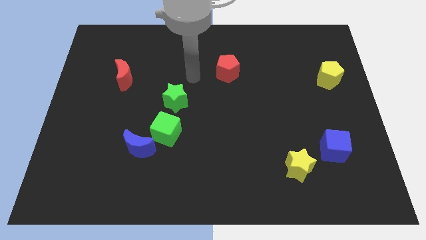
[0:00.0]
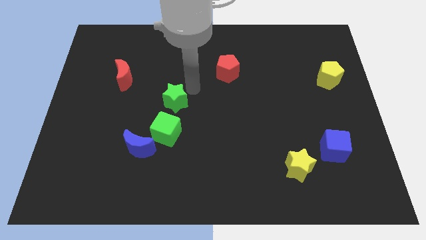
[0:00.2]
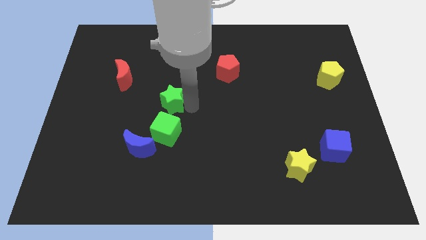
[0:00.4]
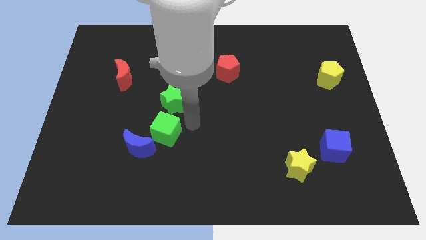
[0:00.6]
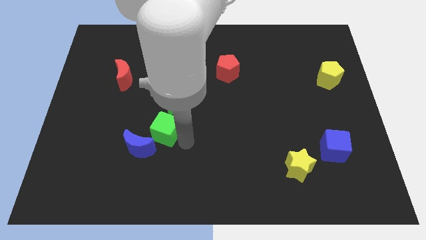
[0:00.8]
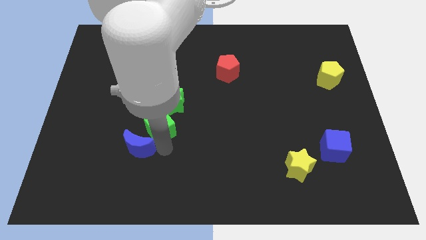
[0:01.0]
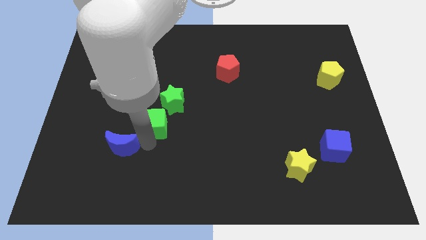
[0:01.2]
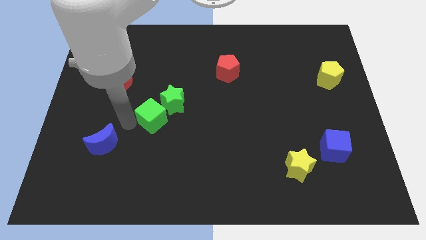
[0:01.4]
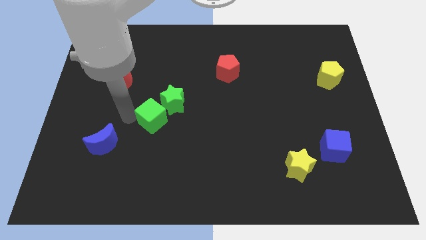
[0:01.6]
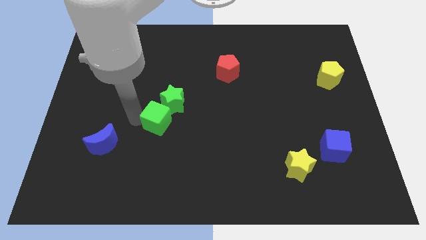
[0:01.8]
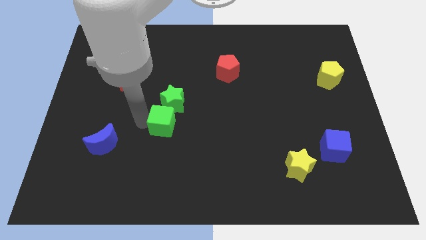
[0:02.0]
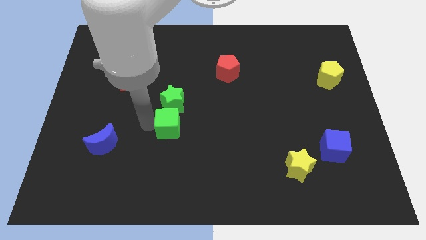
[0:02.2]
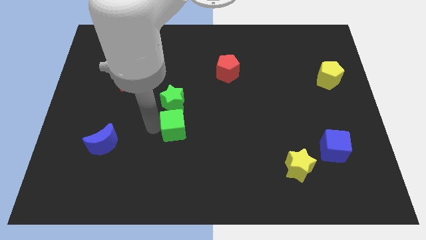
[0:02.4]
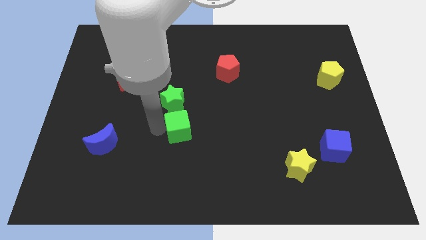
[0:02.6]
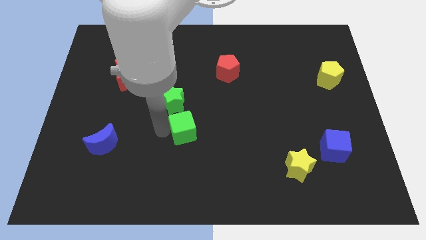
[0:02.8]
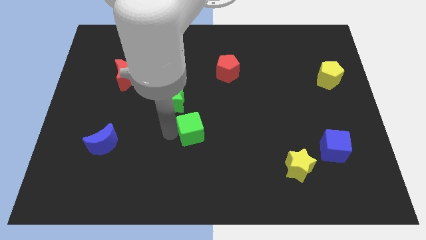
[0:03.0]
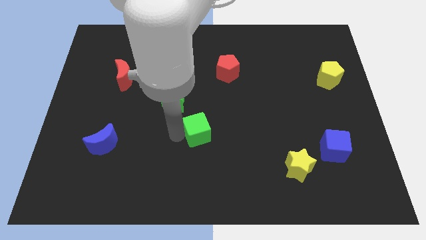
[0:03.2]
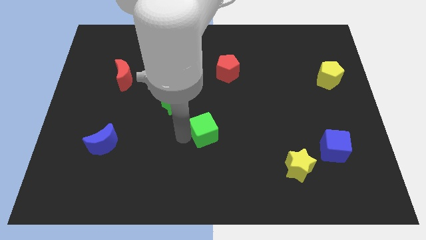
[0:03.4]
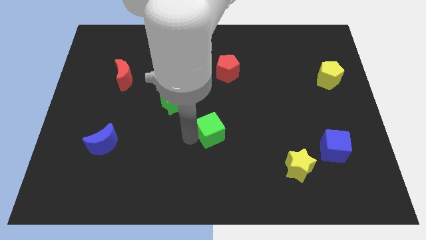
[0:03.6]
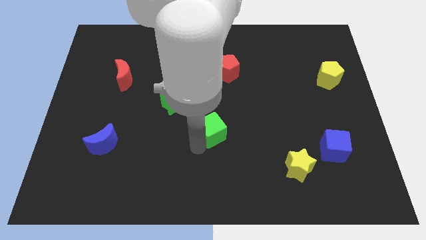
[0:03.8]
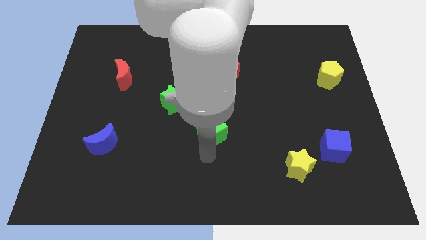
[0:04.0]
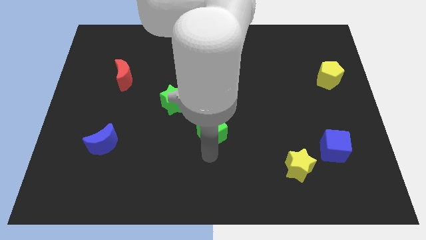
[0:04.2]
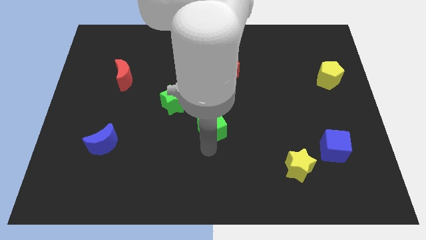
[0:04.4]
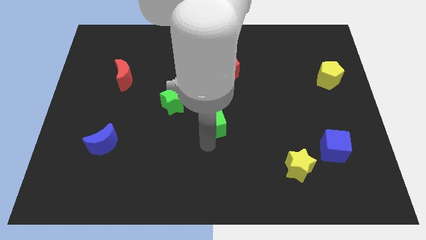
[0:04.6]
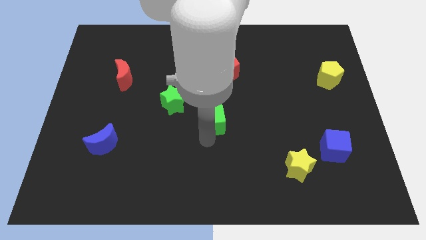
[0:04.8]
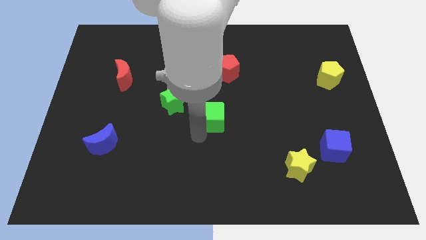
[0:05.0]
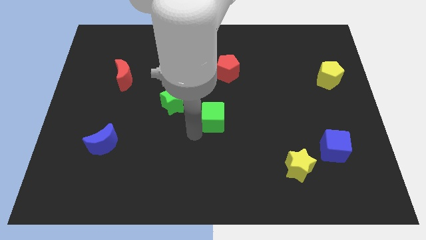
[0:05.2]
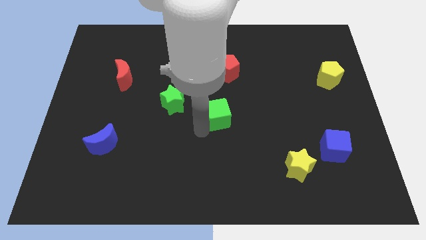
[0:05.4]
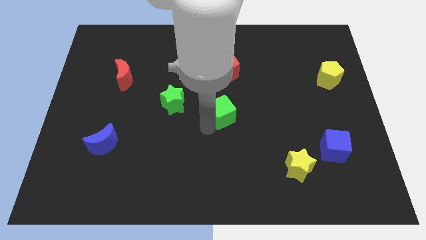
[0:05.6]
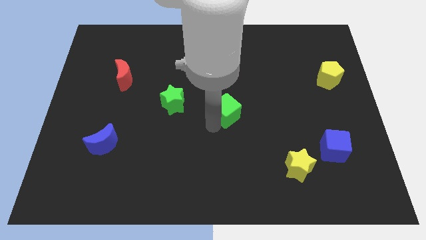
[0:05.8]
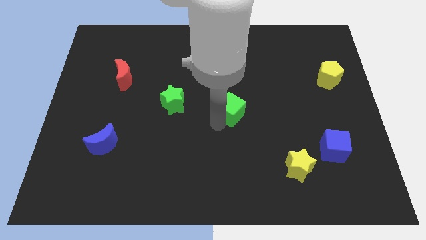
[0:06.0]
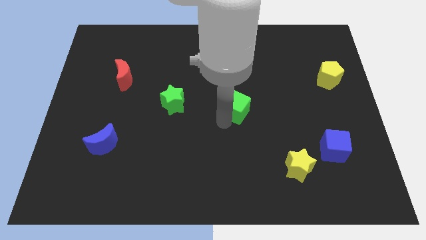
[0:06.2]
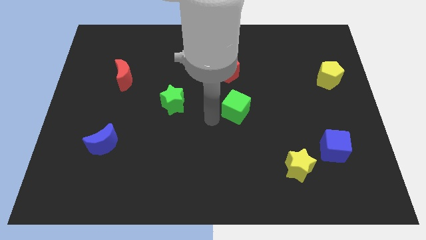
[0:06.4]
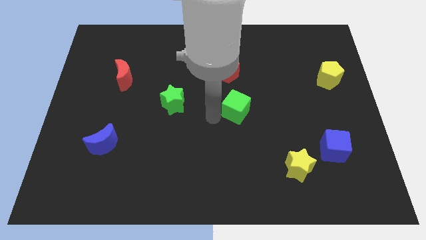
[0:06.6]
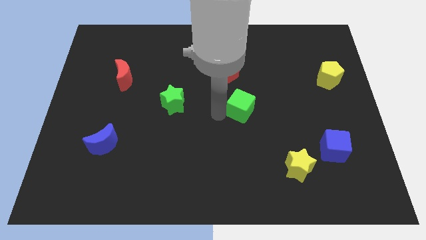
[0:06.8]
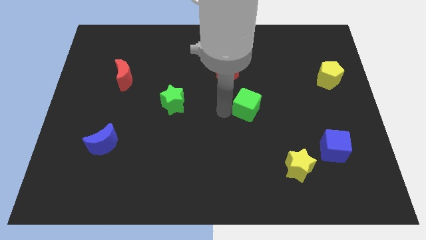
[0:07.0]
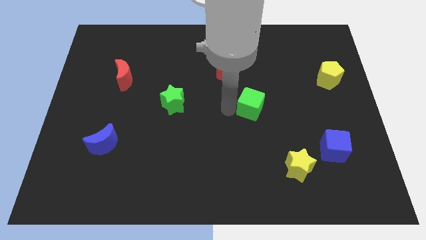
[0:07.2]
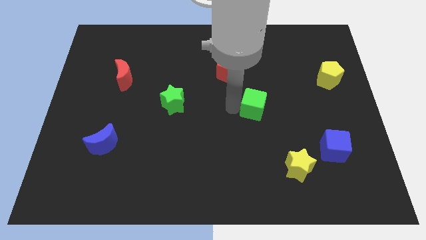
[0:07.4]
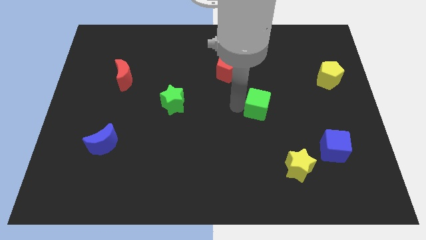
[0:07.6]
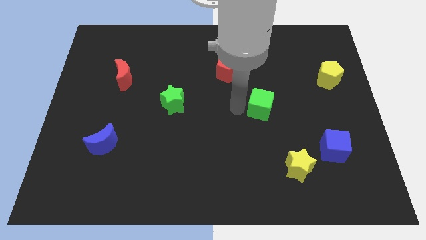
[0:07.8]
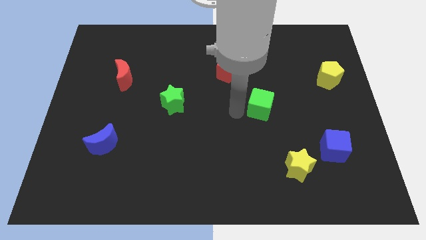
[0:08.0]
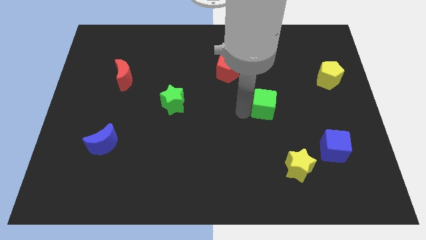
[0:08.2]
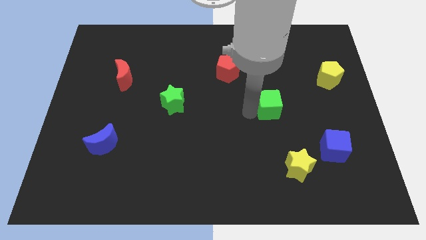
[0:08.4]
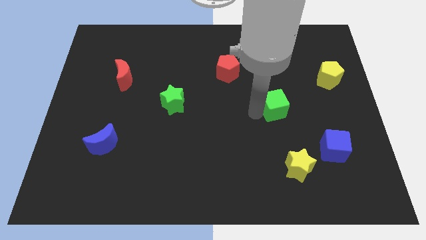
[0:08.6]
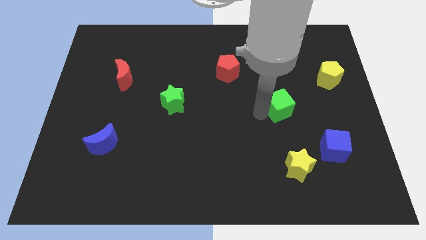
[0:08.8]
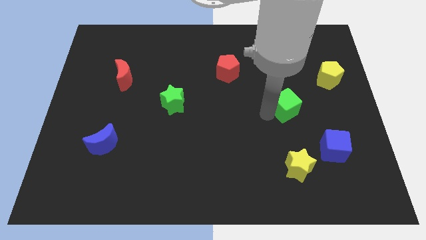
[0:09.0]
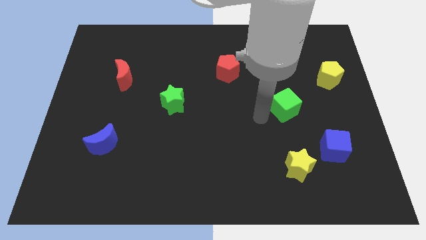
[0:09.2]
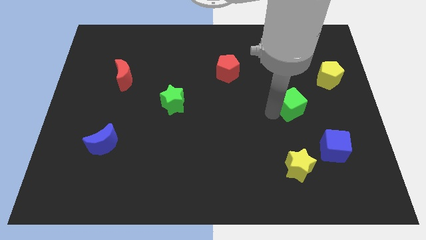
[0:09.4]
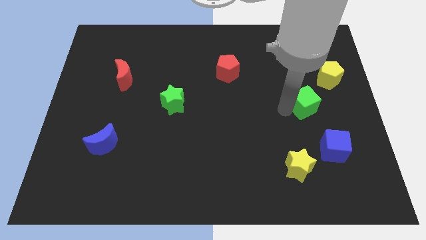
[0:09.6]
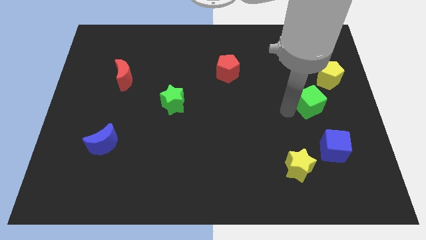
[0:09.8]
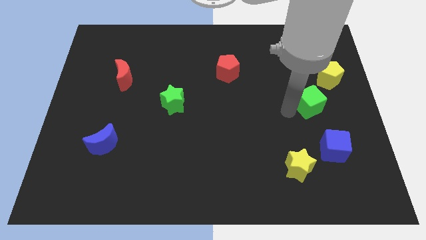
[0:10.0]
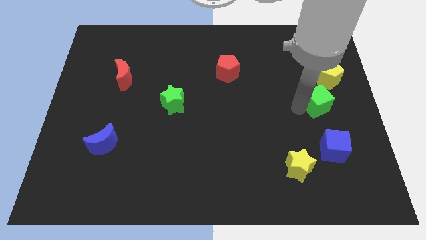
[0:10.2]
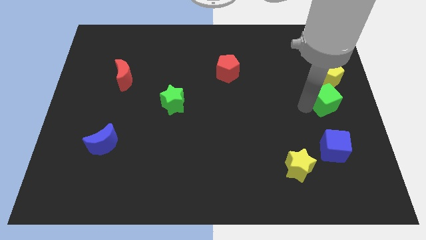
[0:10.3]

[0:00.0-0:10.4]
push the green cube to the center right

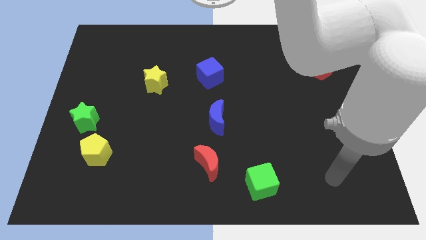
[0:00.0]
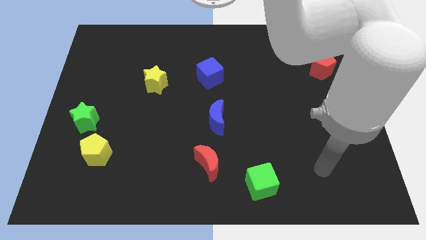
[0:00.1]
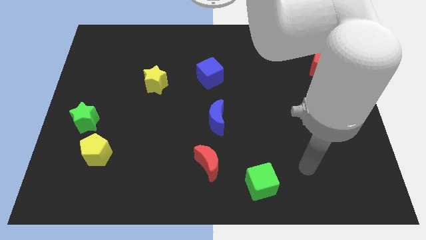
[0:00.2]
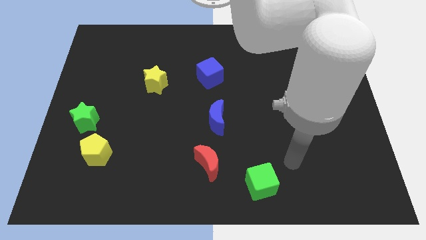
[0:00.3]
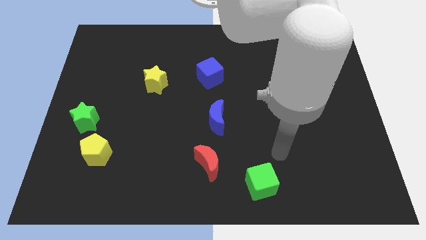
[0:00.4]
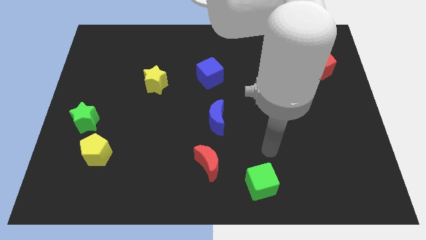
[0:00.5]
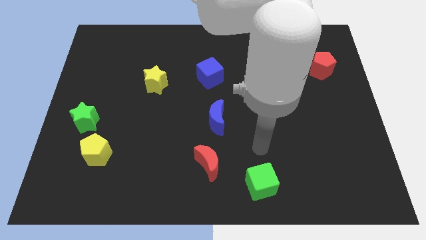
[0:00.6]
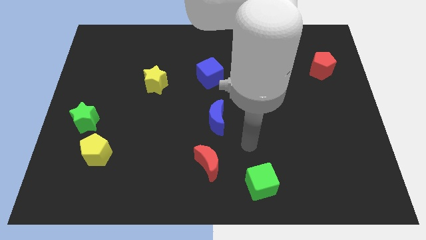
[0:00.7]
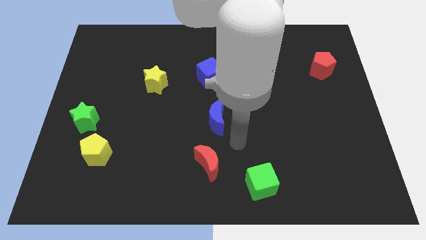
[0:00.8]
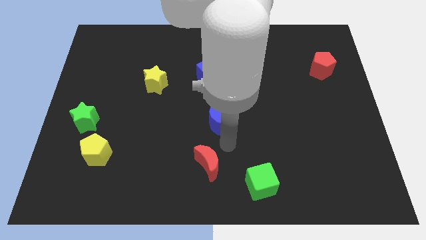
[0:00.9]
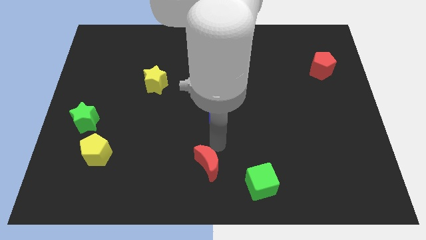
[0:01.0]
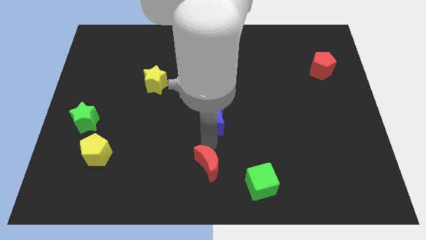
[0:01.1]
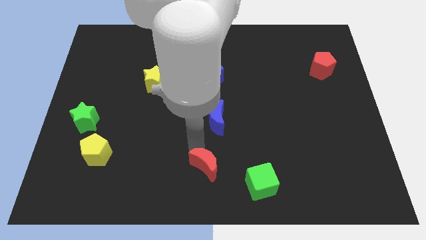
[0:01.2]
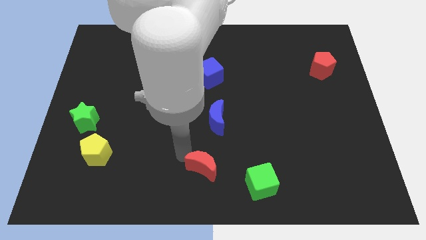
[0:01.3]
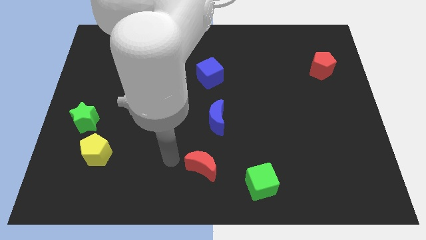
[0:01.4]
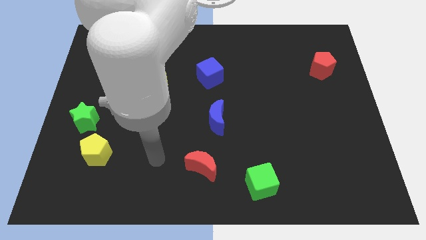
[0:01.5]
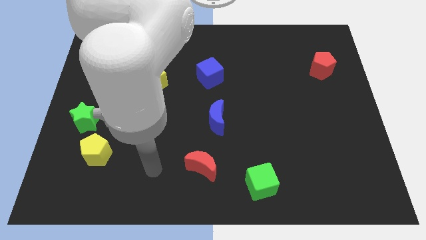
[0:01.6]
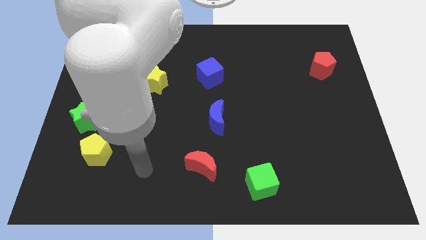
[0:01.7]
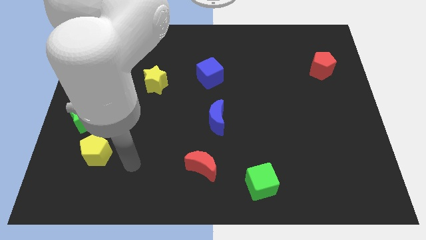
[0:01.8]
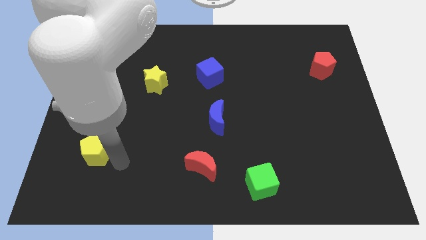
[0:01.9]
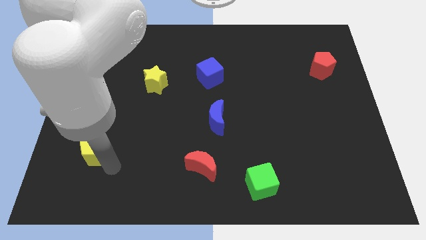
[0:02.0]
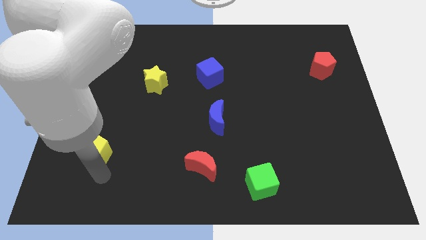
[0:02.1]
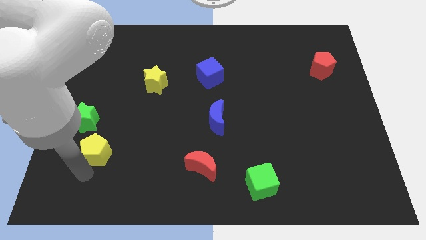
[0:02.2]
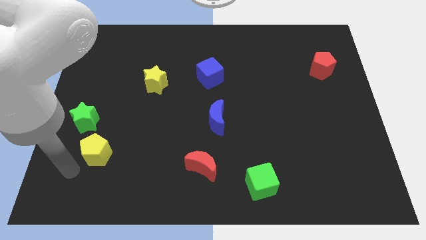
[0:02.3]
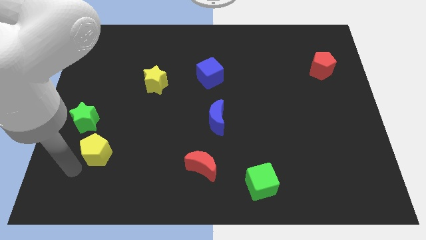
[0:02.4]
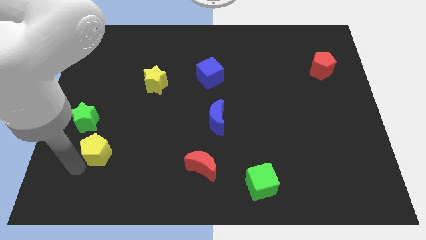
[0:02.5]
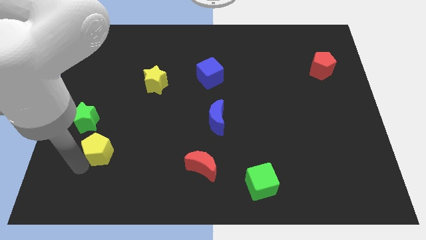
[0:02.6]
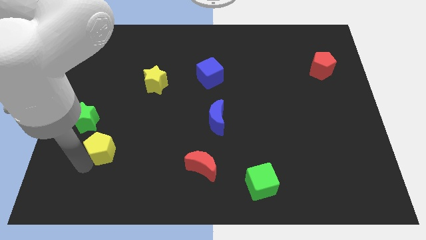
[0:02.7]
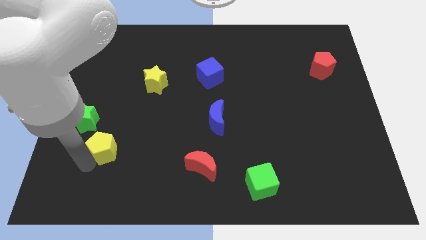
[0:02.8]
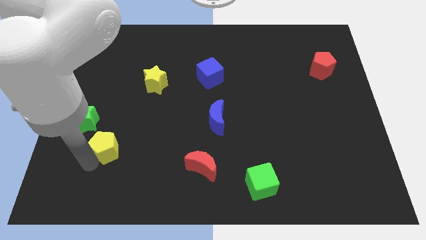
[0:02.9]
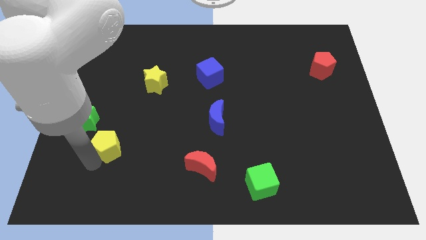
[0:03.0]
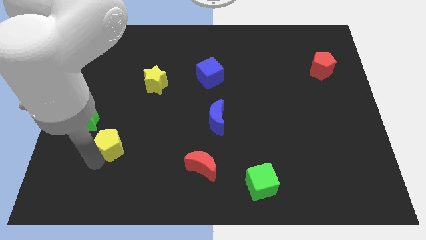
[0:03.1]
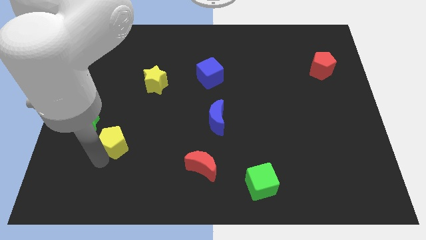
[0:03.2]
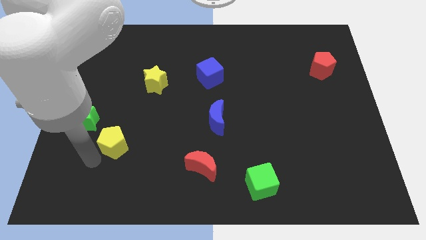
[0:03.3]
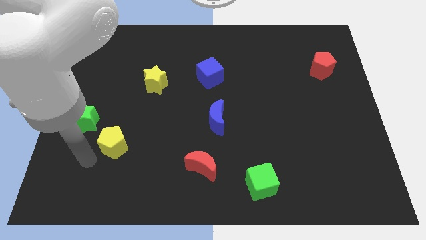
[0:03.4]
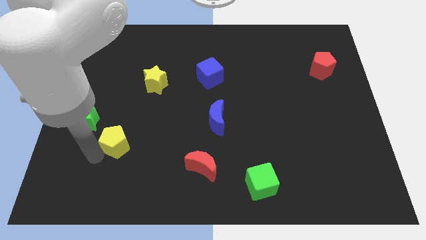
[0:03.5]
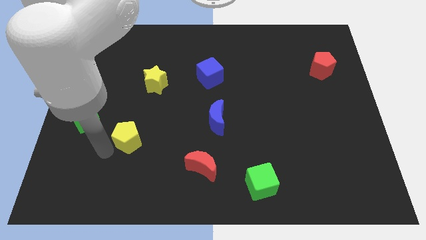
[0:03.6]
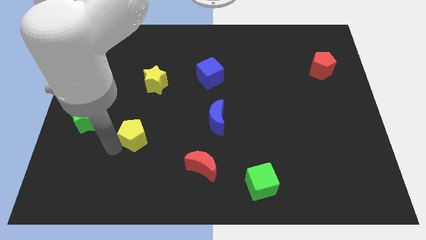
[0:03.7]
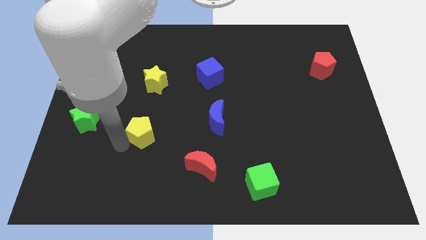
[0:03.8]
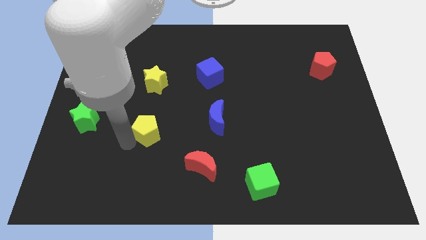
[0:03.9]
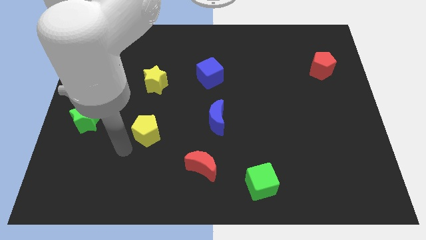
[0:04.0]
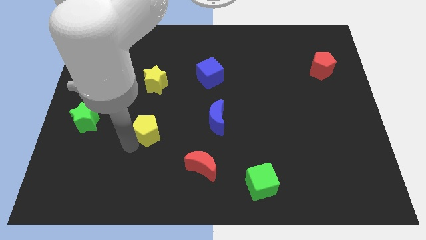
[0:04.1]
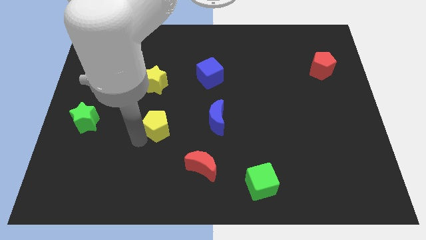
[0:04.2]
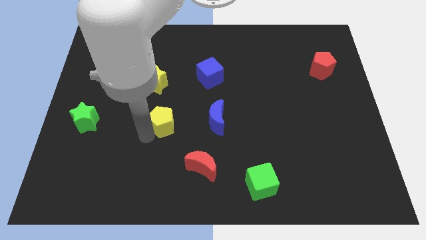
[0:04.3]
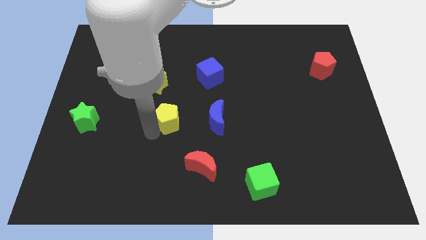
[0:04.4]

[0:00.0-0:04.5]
move the yellow pentagon to the center
